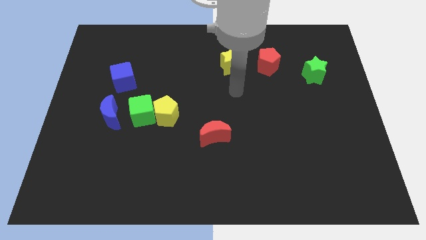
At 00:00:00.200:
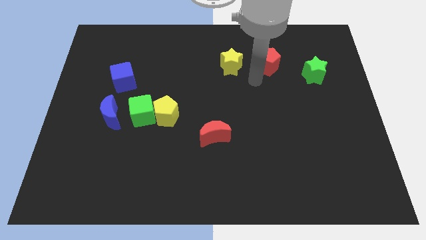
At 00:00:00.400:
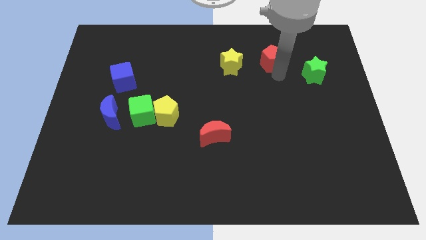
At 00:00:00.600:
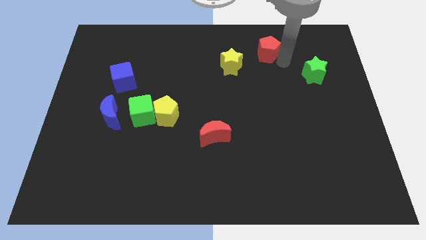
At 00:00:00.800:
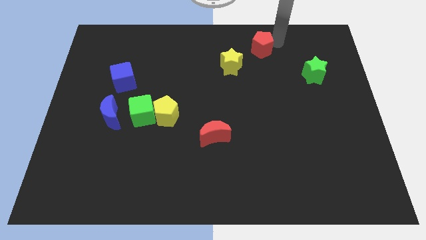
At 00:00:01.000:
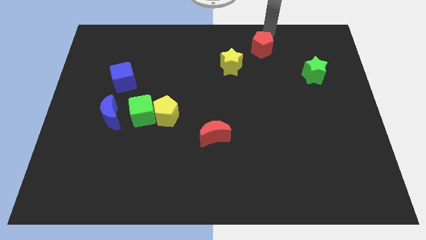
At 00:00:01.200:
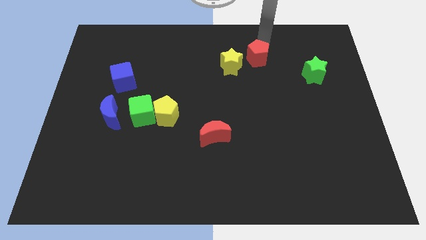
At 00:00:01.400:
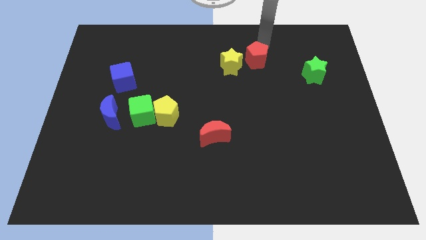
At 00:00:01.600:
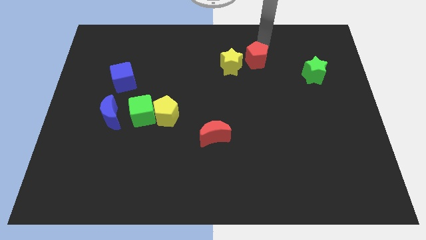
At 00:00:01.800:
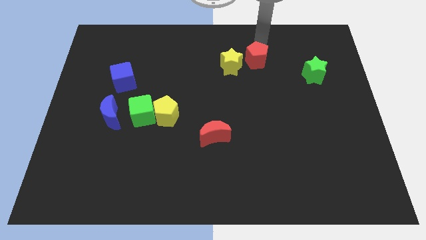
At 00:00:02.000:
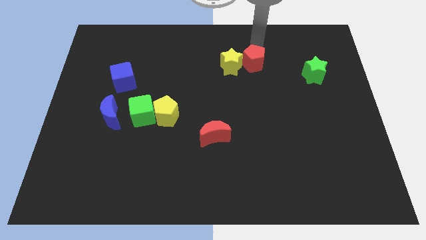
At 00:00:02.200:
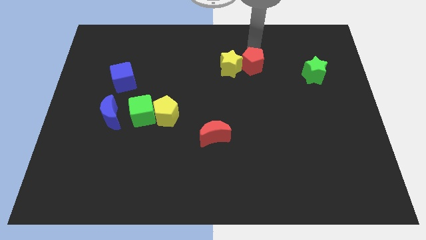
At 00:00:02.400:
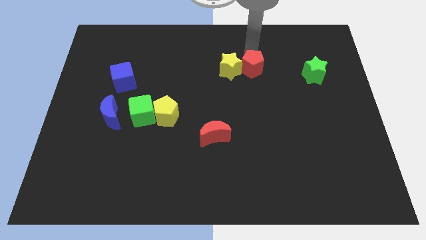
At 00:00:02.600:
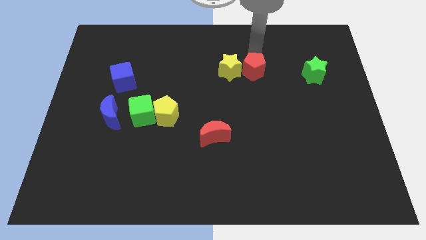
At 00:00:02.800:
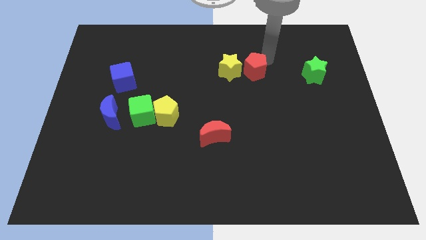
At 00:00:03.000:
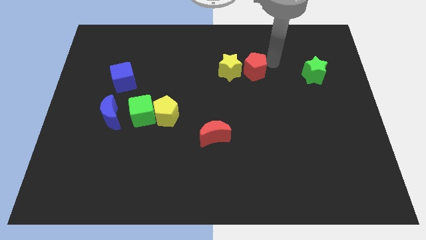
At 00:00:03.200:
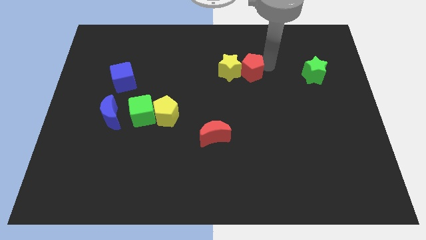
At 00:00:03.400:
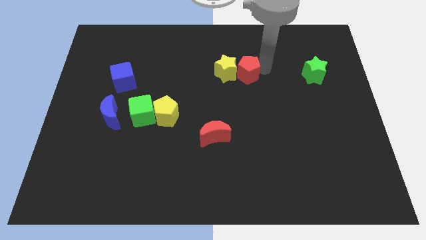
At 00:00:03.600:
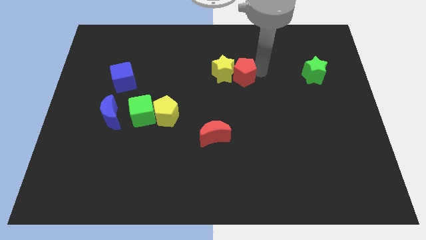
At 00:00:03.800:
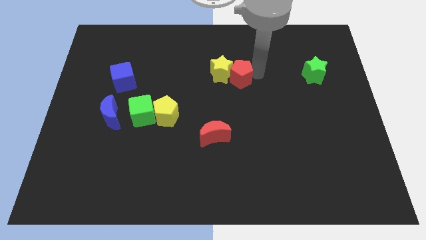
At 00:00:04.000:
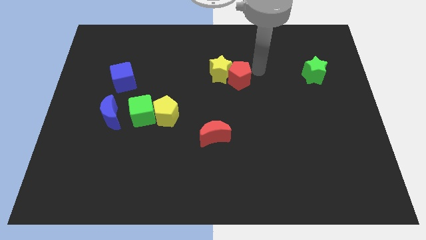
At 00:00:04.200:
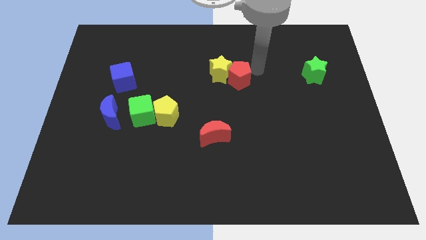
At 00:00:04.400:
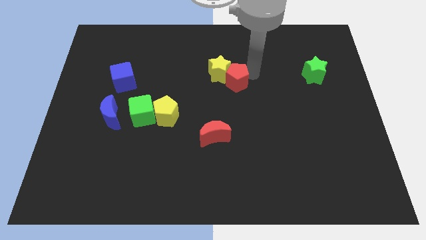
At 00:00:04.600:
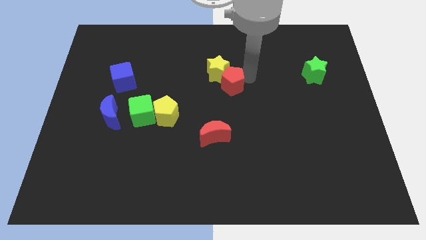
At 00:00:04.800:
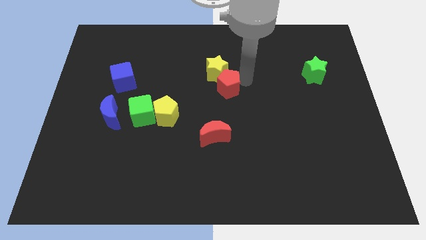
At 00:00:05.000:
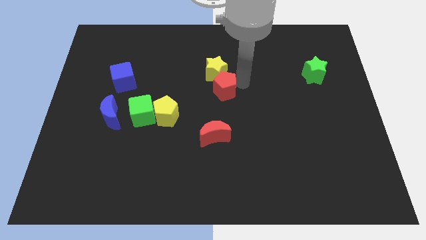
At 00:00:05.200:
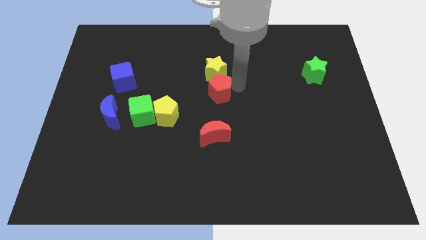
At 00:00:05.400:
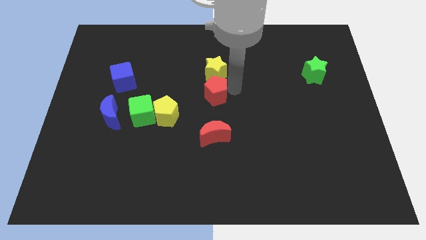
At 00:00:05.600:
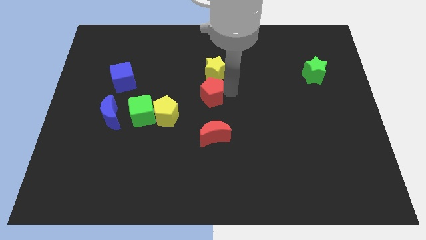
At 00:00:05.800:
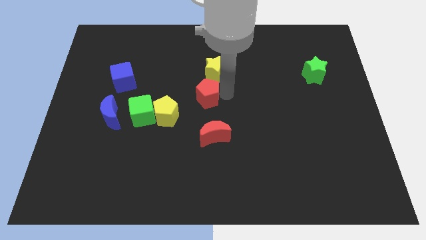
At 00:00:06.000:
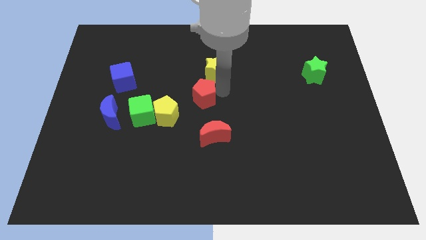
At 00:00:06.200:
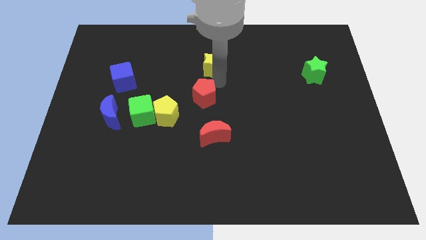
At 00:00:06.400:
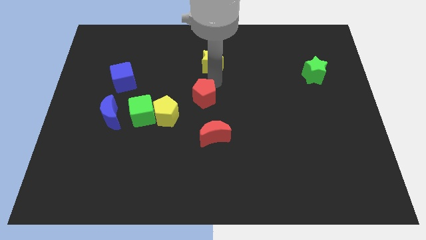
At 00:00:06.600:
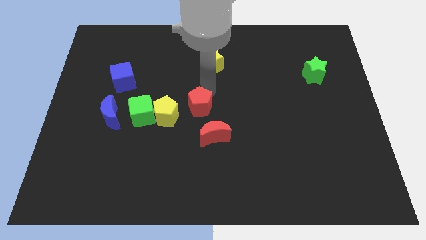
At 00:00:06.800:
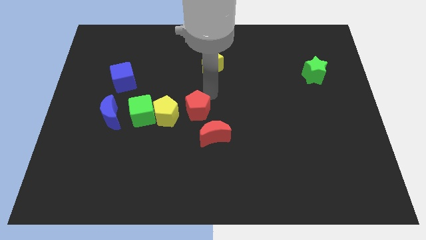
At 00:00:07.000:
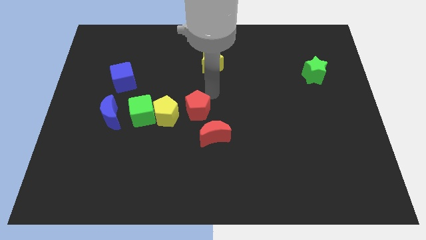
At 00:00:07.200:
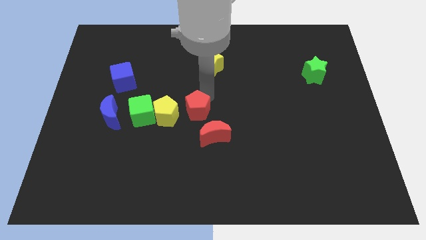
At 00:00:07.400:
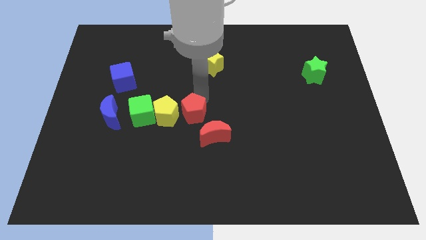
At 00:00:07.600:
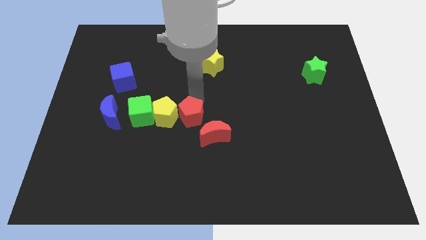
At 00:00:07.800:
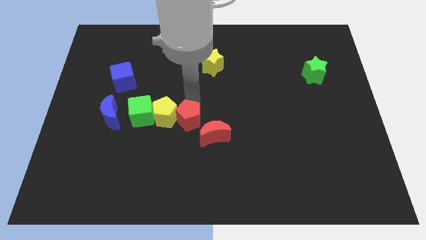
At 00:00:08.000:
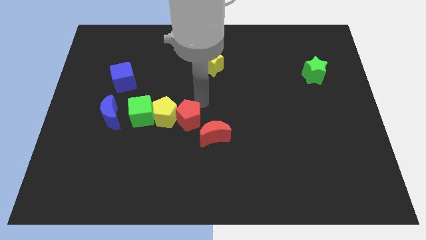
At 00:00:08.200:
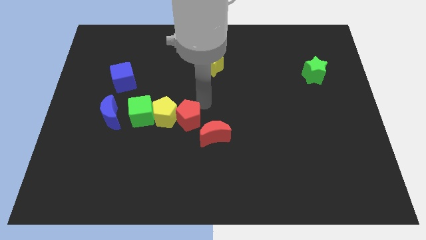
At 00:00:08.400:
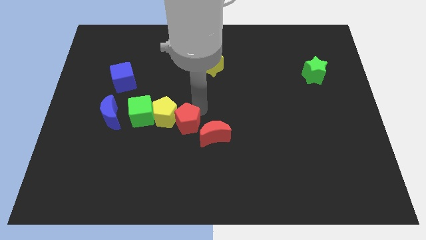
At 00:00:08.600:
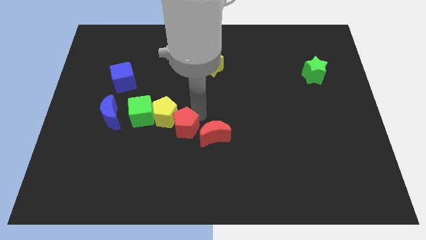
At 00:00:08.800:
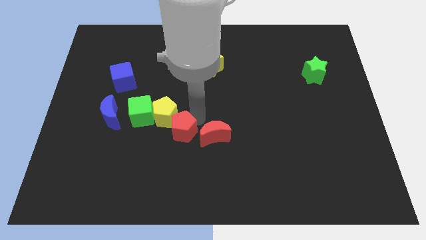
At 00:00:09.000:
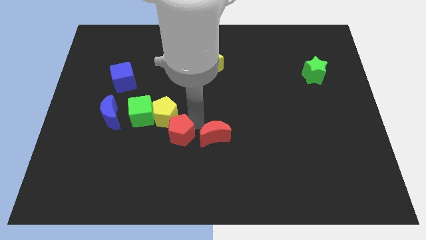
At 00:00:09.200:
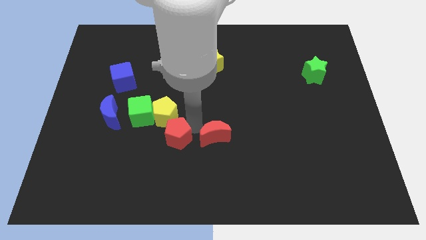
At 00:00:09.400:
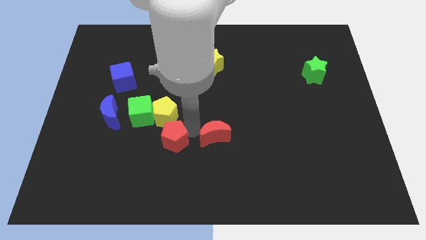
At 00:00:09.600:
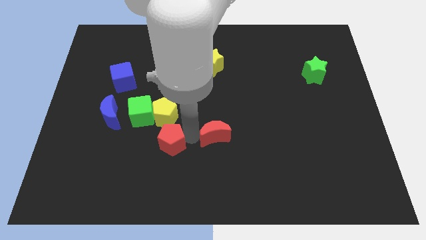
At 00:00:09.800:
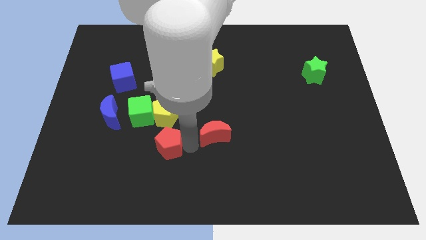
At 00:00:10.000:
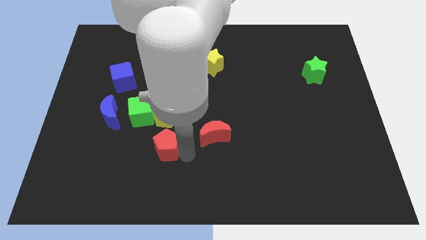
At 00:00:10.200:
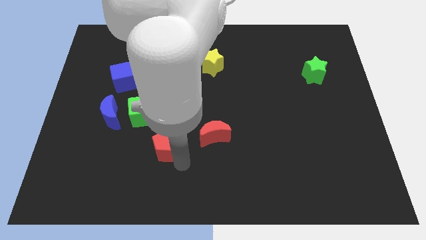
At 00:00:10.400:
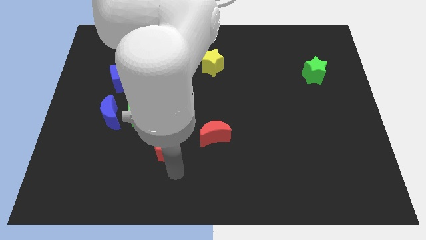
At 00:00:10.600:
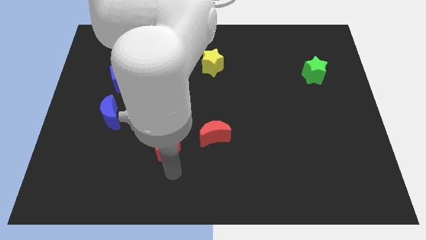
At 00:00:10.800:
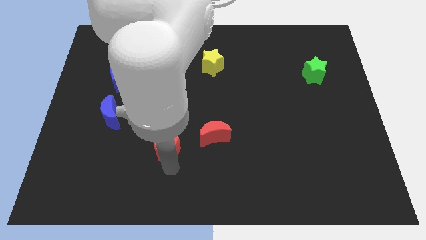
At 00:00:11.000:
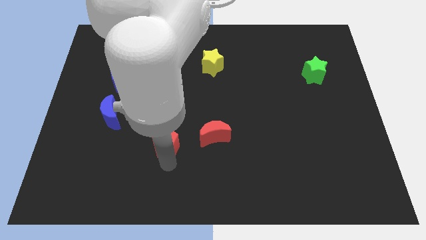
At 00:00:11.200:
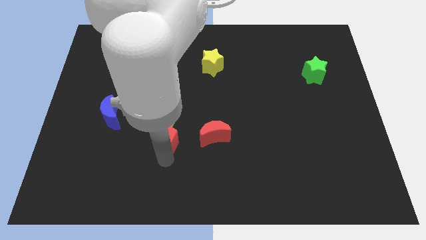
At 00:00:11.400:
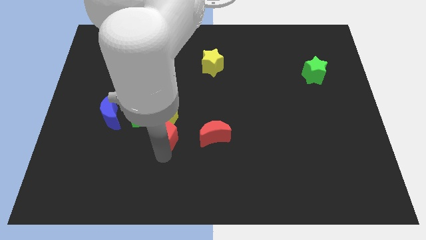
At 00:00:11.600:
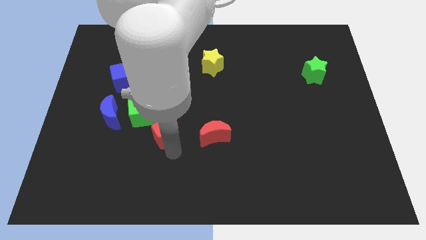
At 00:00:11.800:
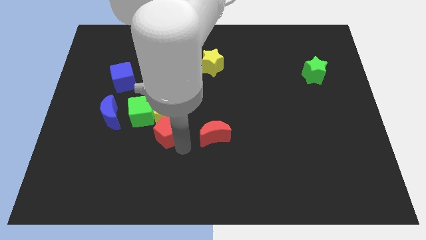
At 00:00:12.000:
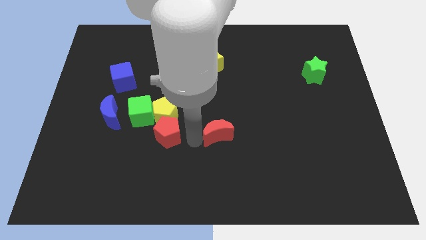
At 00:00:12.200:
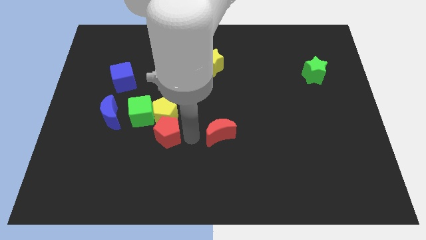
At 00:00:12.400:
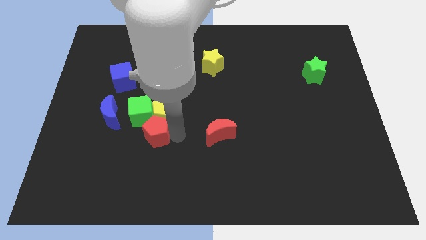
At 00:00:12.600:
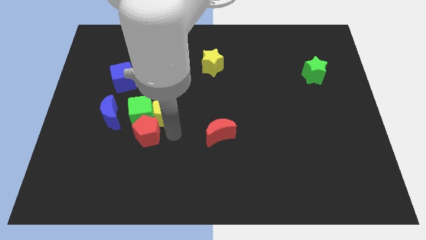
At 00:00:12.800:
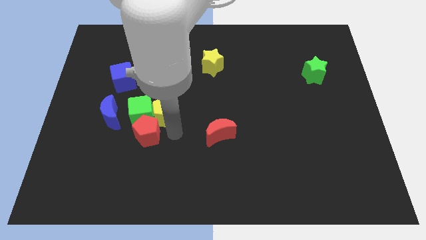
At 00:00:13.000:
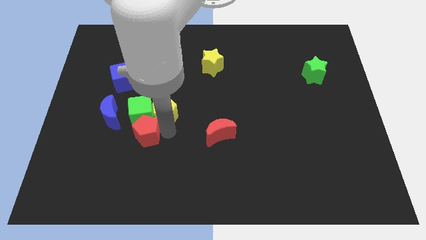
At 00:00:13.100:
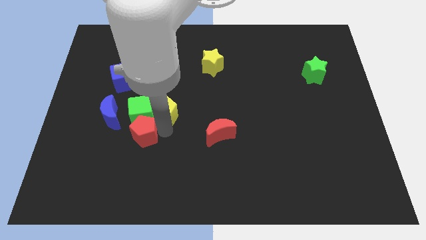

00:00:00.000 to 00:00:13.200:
slide the red pentagon to the bottom left side of the green cube
